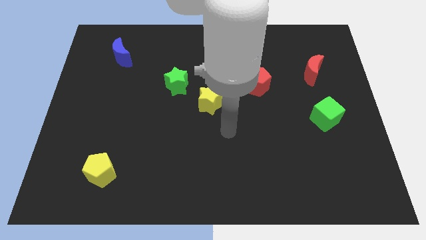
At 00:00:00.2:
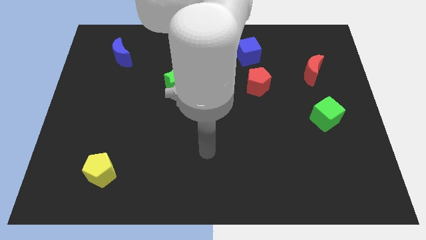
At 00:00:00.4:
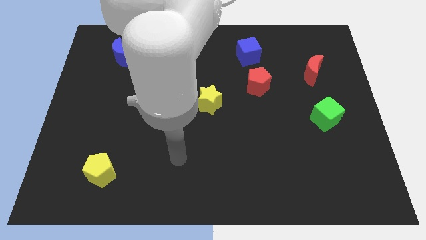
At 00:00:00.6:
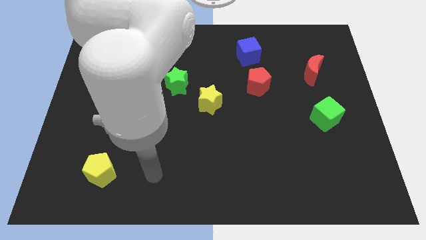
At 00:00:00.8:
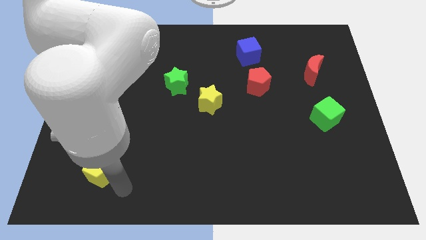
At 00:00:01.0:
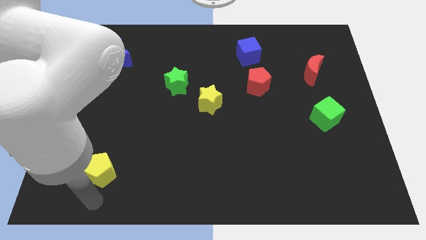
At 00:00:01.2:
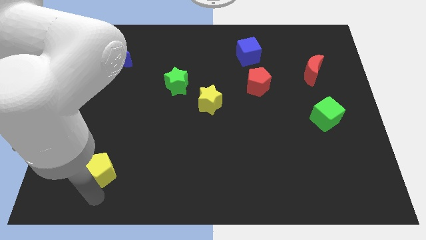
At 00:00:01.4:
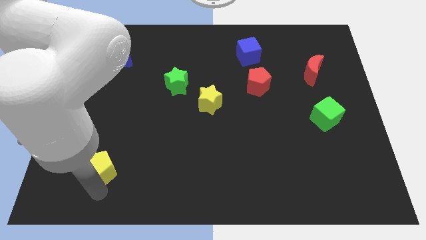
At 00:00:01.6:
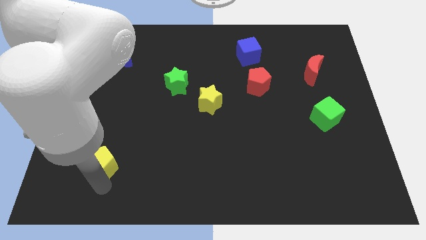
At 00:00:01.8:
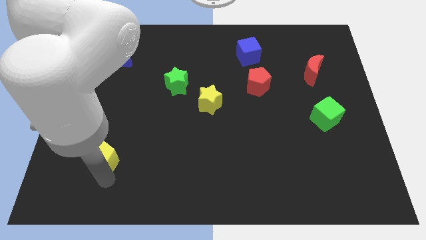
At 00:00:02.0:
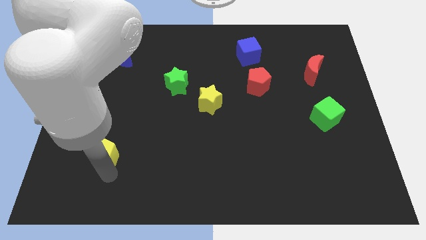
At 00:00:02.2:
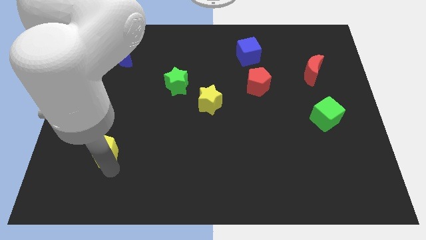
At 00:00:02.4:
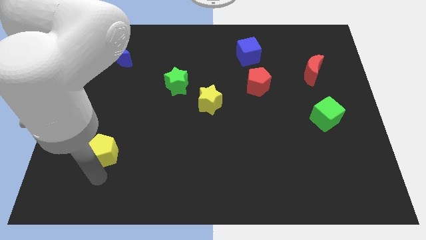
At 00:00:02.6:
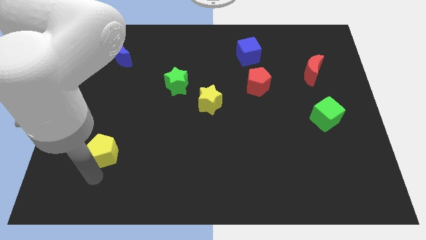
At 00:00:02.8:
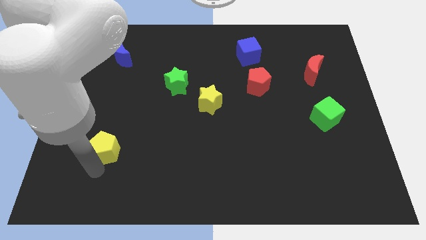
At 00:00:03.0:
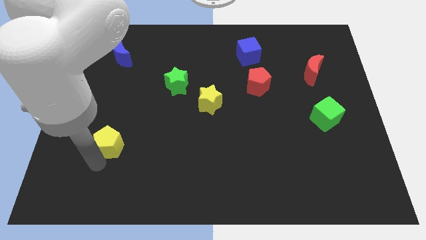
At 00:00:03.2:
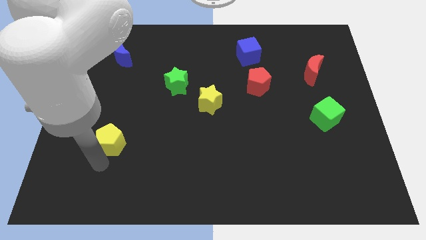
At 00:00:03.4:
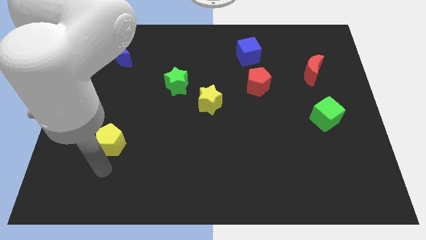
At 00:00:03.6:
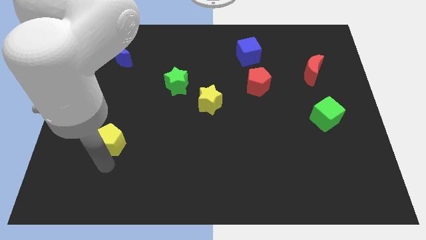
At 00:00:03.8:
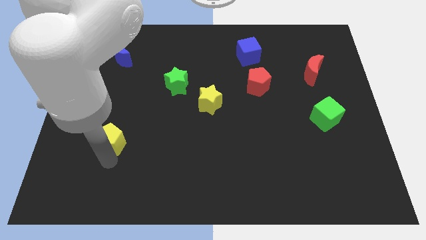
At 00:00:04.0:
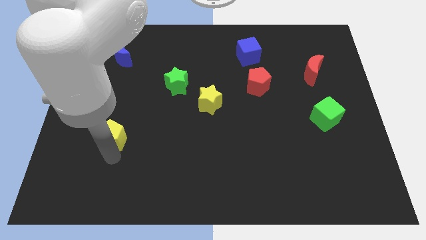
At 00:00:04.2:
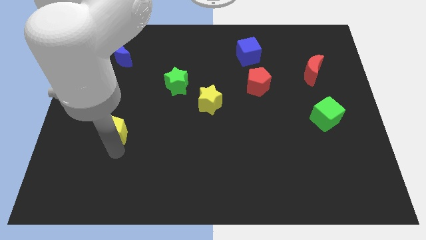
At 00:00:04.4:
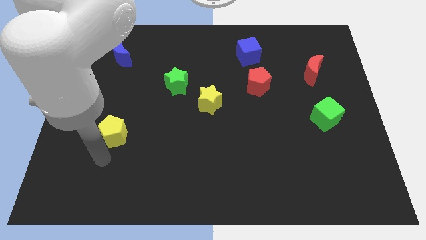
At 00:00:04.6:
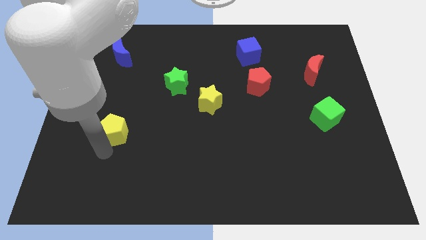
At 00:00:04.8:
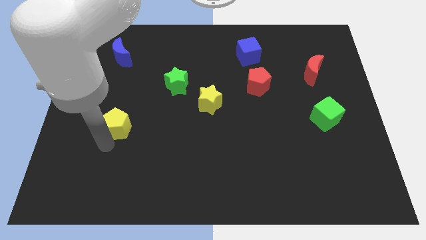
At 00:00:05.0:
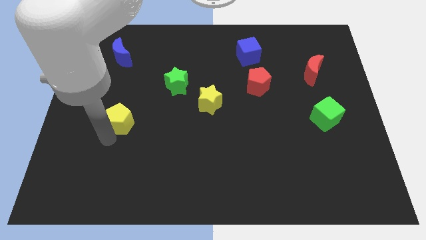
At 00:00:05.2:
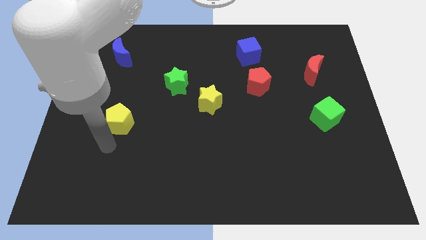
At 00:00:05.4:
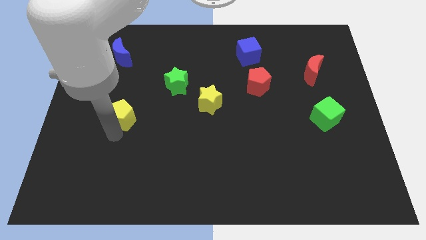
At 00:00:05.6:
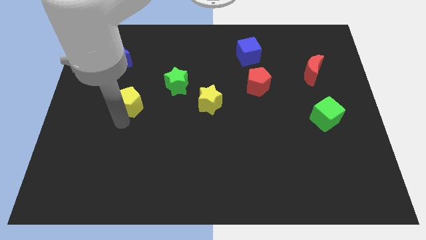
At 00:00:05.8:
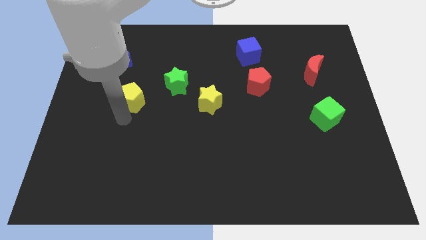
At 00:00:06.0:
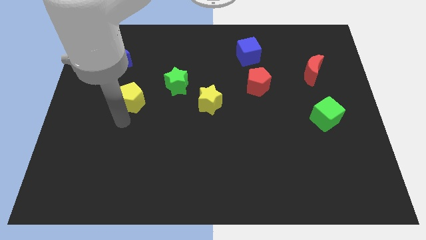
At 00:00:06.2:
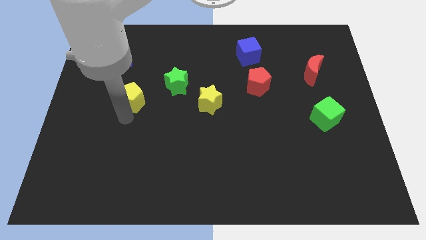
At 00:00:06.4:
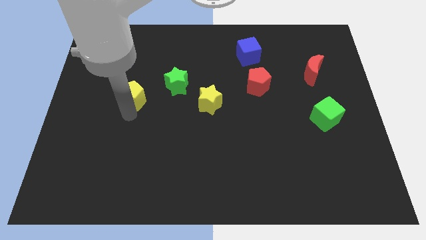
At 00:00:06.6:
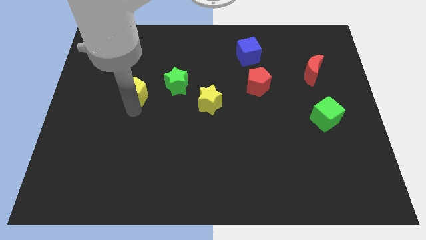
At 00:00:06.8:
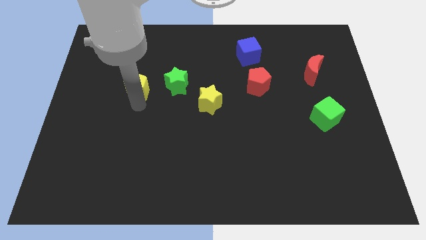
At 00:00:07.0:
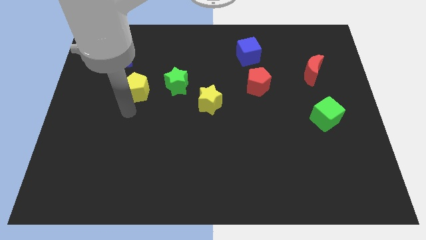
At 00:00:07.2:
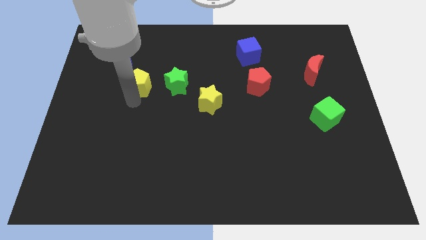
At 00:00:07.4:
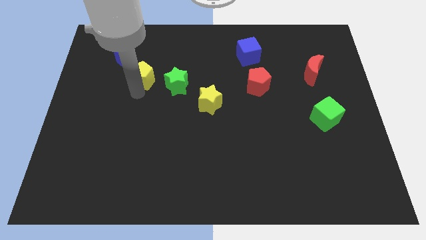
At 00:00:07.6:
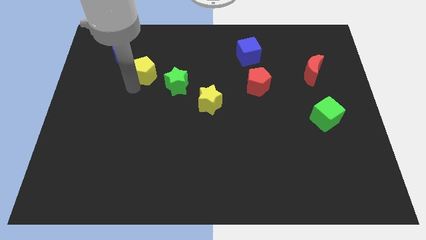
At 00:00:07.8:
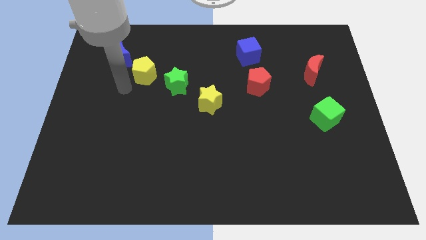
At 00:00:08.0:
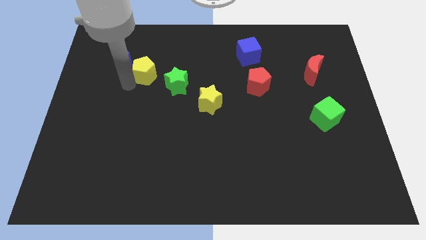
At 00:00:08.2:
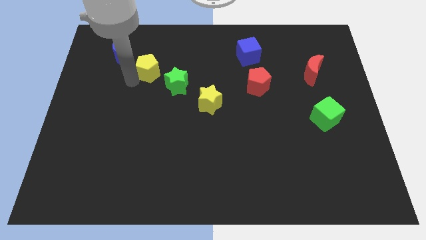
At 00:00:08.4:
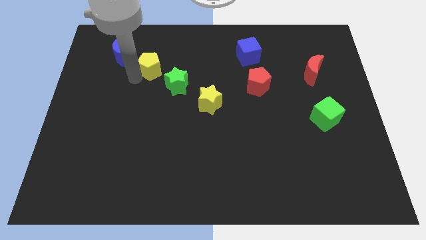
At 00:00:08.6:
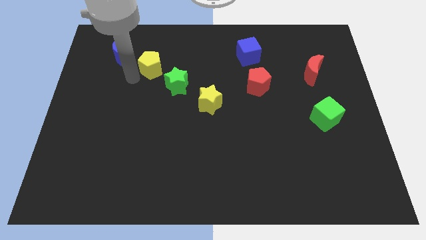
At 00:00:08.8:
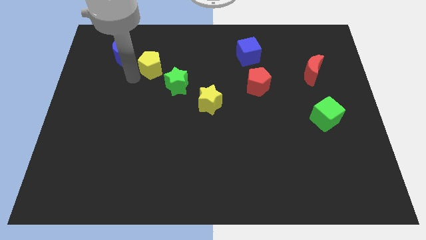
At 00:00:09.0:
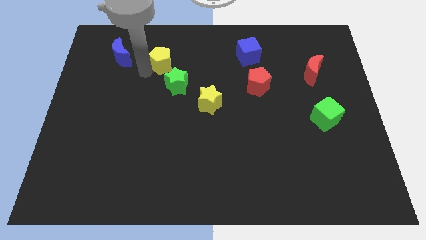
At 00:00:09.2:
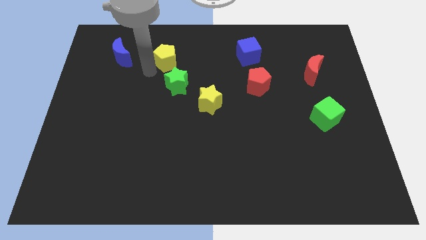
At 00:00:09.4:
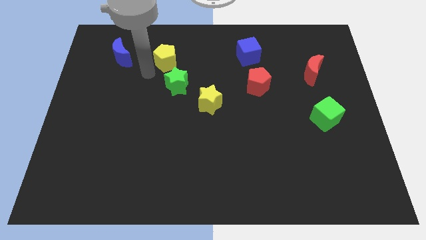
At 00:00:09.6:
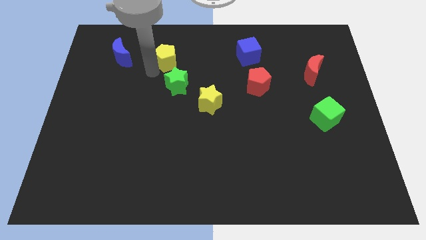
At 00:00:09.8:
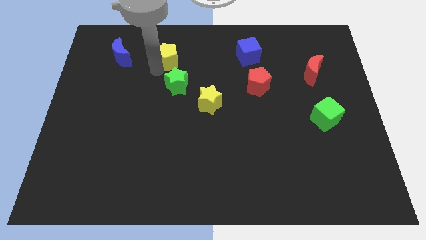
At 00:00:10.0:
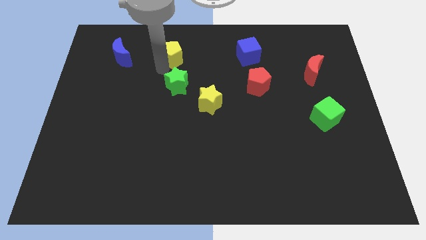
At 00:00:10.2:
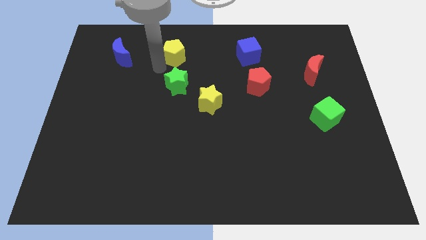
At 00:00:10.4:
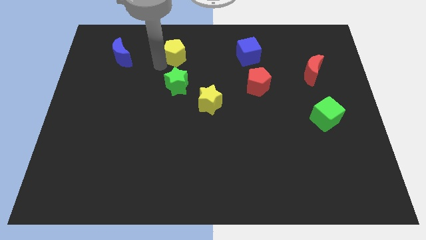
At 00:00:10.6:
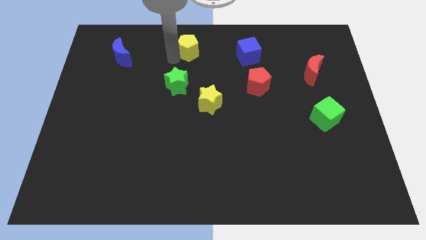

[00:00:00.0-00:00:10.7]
slide the yellow pentagon to the towards your base

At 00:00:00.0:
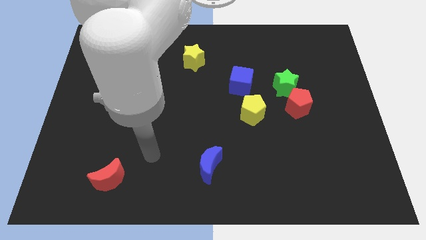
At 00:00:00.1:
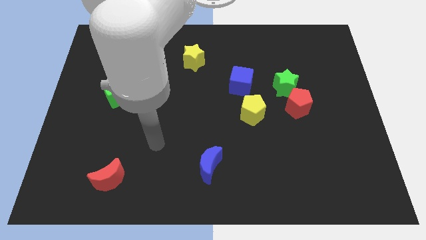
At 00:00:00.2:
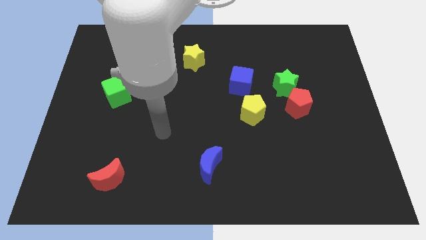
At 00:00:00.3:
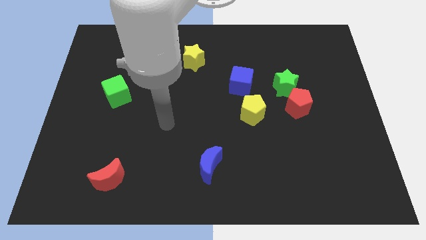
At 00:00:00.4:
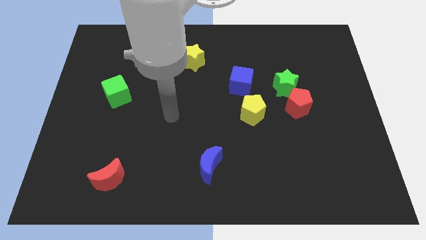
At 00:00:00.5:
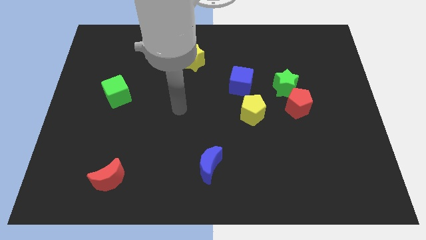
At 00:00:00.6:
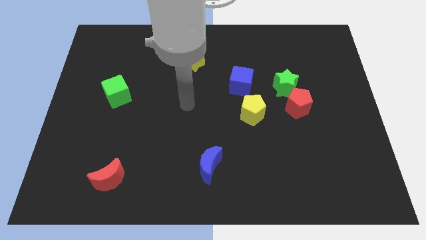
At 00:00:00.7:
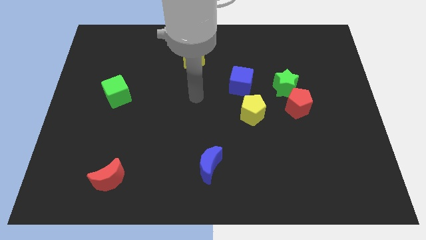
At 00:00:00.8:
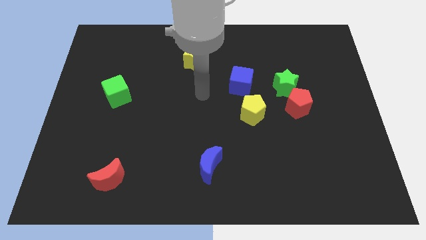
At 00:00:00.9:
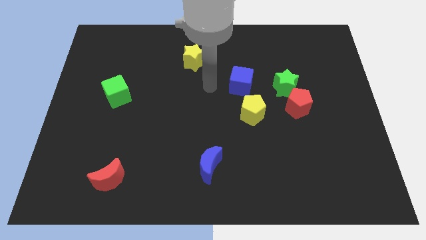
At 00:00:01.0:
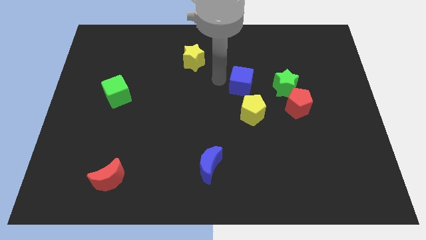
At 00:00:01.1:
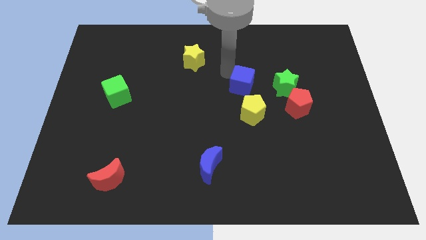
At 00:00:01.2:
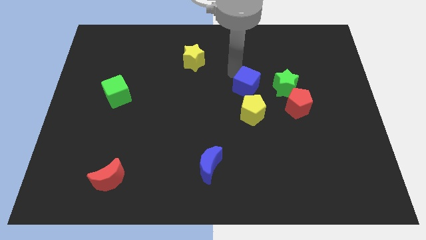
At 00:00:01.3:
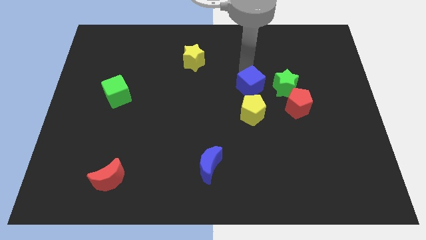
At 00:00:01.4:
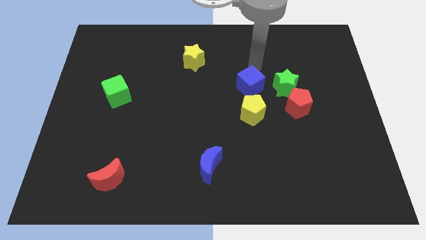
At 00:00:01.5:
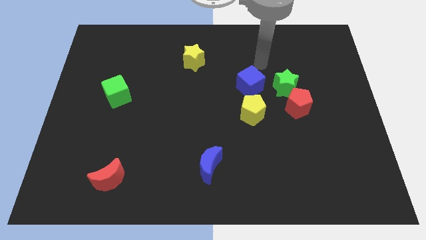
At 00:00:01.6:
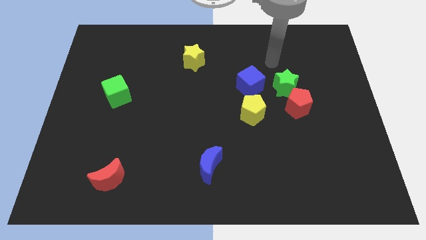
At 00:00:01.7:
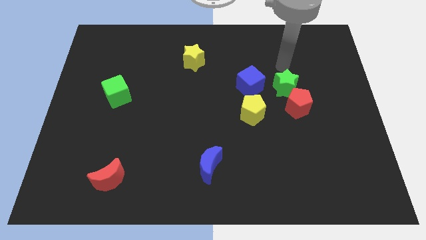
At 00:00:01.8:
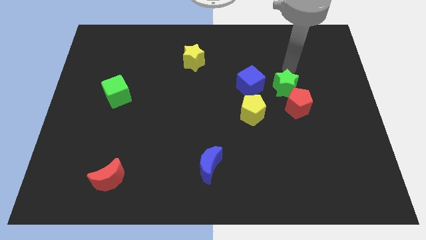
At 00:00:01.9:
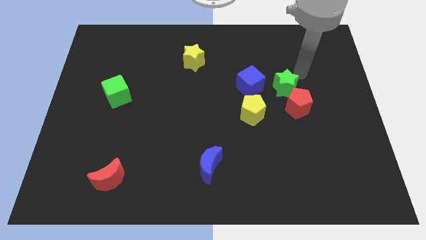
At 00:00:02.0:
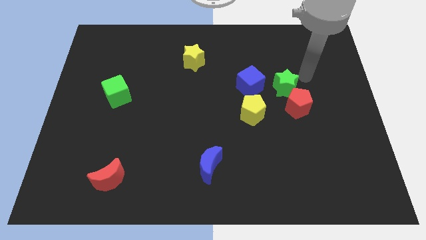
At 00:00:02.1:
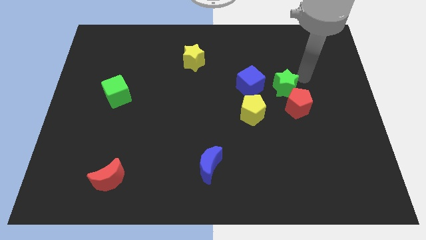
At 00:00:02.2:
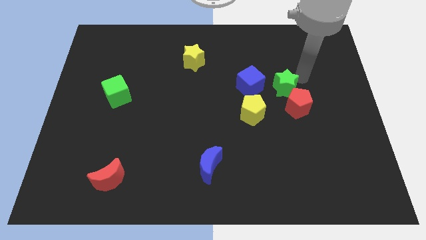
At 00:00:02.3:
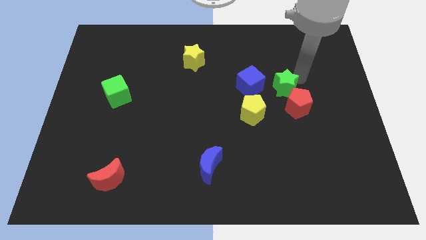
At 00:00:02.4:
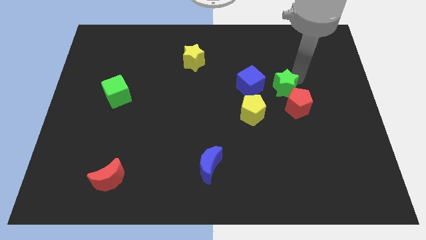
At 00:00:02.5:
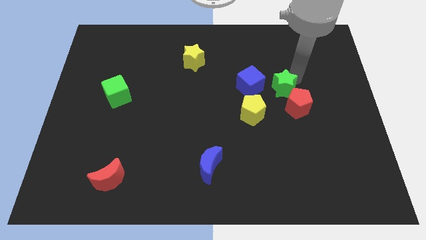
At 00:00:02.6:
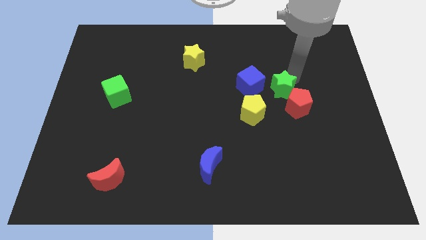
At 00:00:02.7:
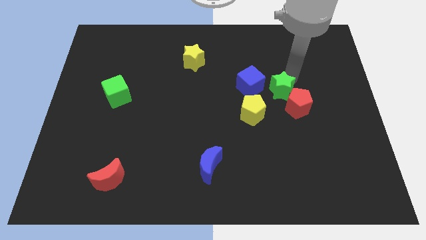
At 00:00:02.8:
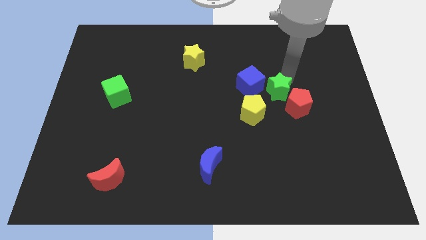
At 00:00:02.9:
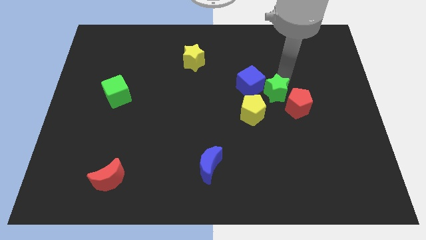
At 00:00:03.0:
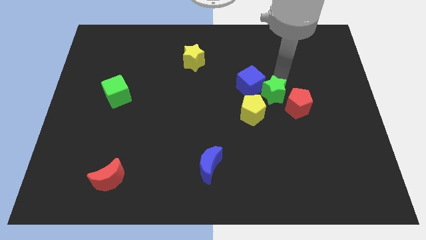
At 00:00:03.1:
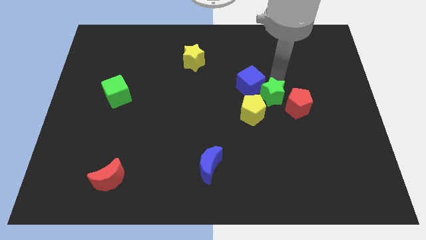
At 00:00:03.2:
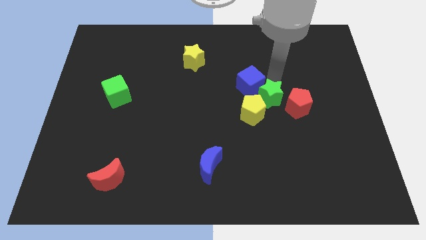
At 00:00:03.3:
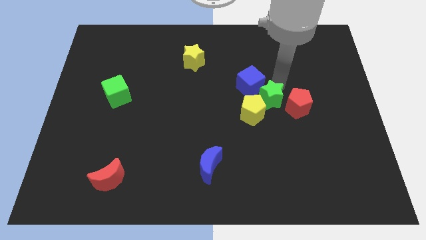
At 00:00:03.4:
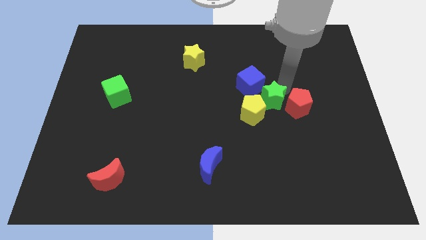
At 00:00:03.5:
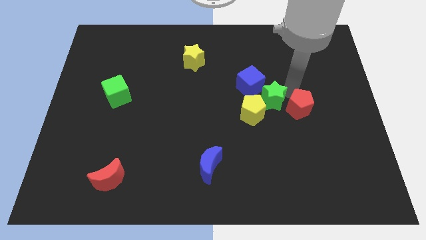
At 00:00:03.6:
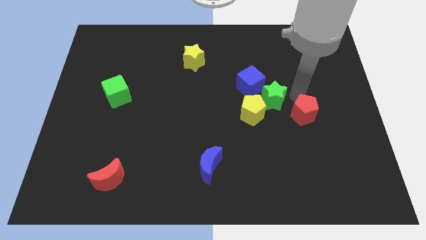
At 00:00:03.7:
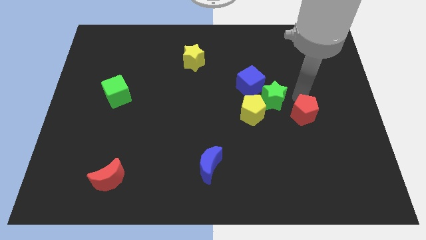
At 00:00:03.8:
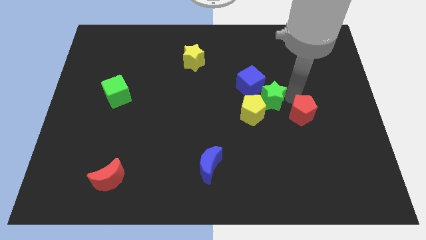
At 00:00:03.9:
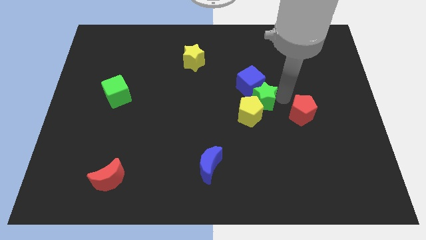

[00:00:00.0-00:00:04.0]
slide the green star to the center
